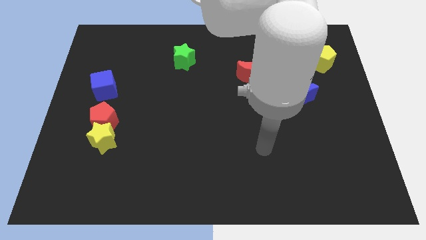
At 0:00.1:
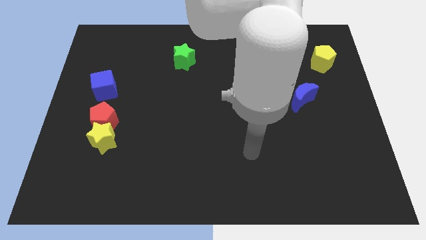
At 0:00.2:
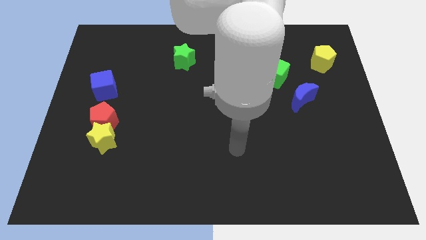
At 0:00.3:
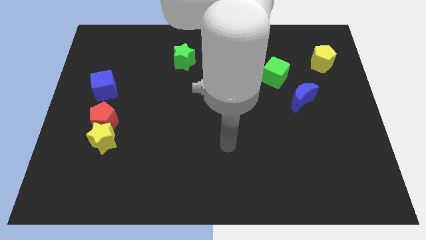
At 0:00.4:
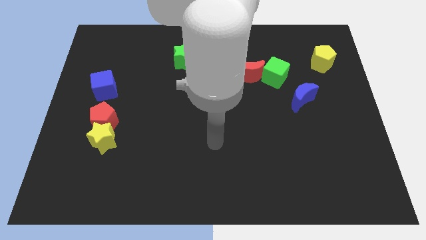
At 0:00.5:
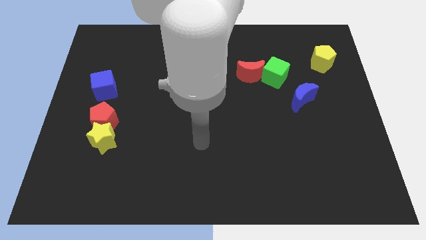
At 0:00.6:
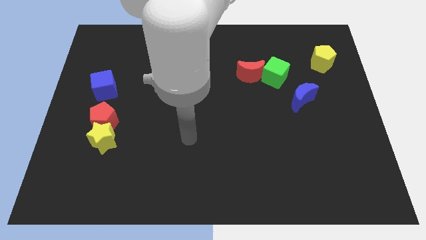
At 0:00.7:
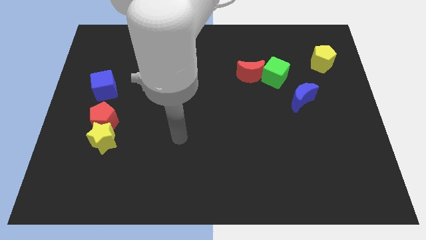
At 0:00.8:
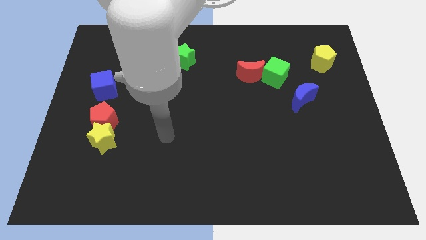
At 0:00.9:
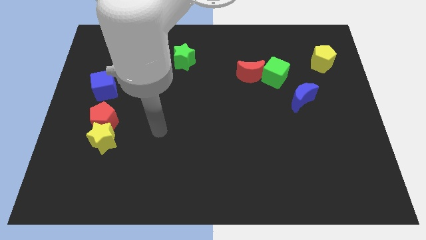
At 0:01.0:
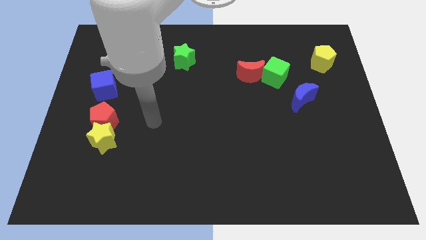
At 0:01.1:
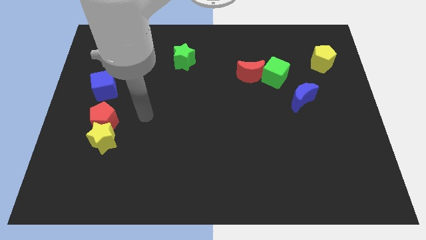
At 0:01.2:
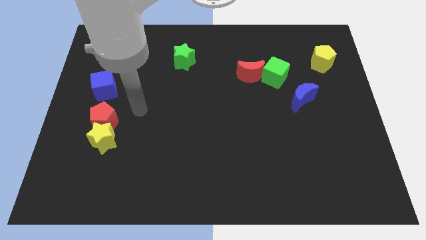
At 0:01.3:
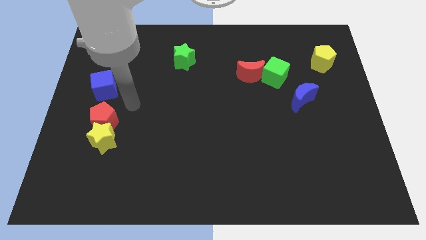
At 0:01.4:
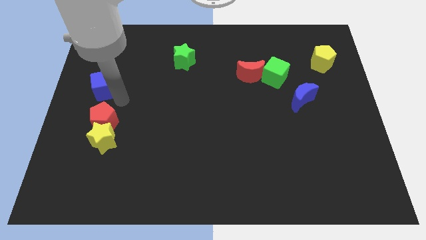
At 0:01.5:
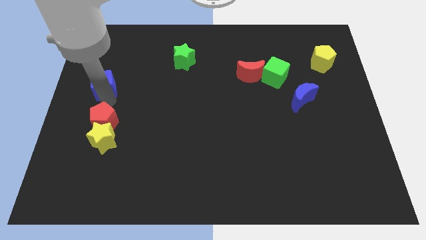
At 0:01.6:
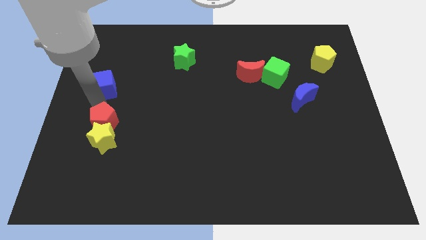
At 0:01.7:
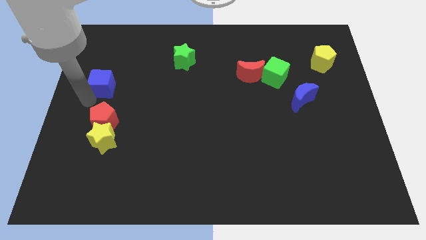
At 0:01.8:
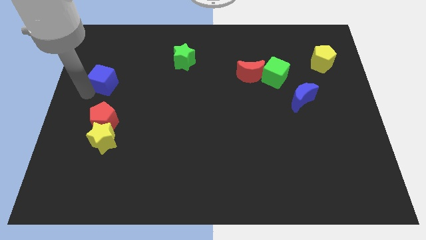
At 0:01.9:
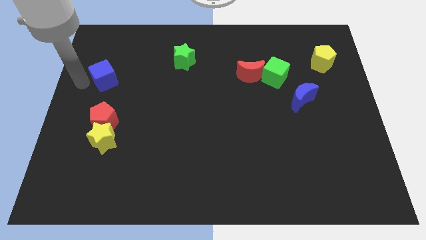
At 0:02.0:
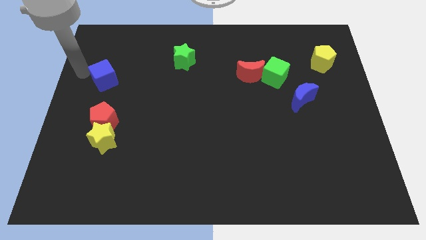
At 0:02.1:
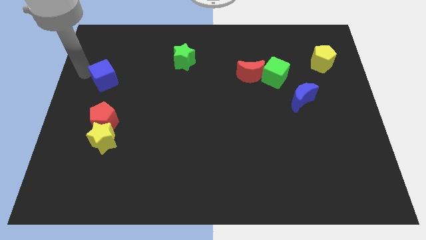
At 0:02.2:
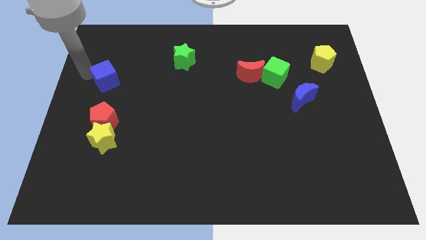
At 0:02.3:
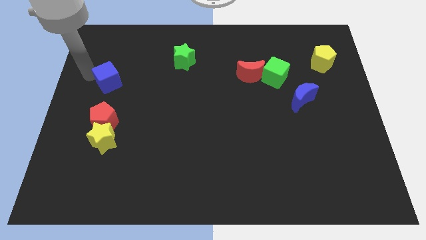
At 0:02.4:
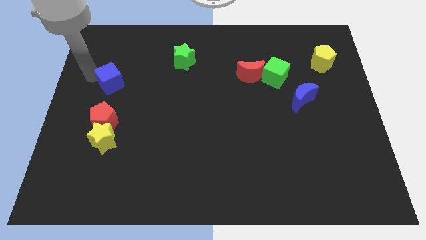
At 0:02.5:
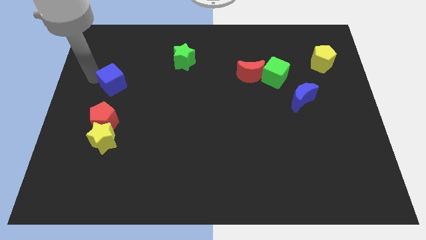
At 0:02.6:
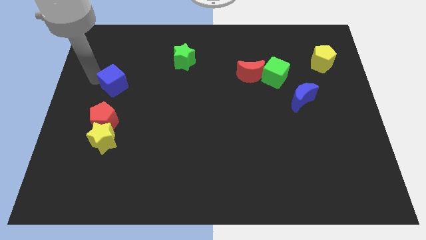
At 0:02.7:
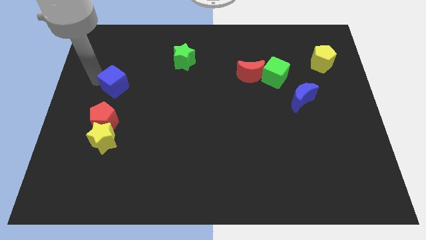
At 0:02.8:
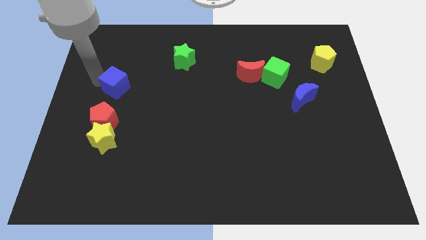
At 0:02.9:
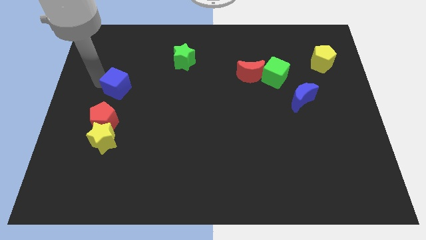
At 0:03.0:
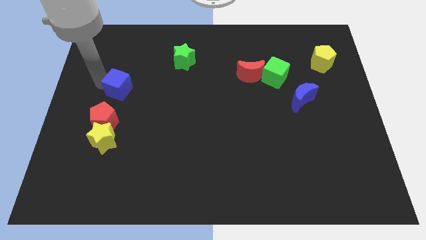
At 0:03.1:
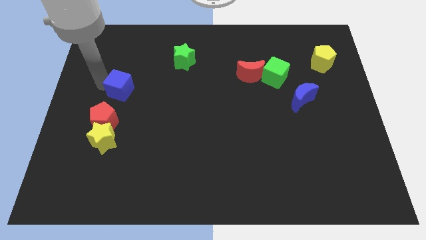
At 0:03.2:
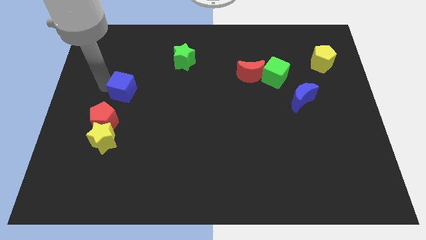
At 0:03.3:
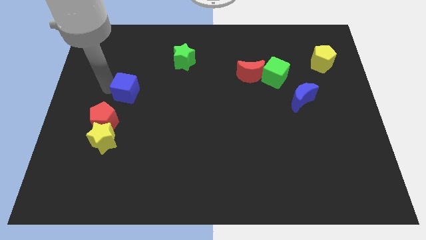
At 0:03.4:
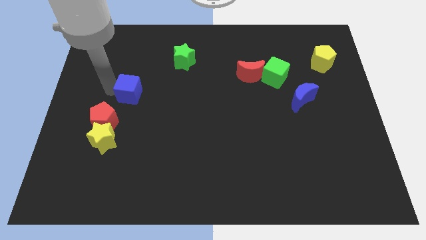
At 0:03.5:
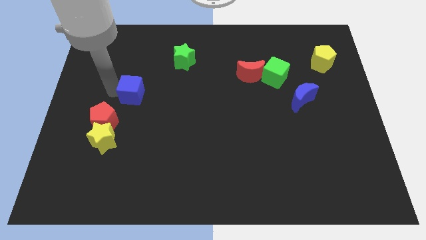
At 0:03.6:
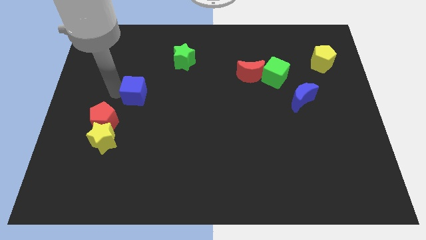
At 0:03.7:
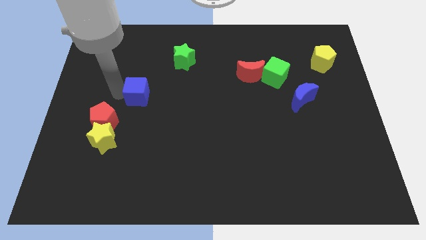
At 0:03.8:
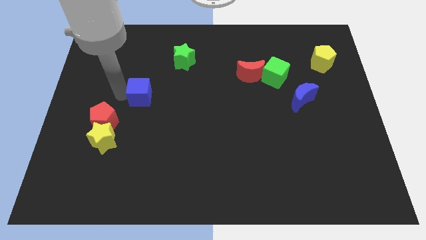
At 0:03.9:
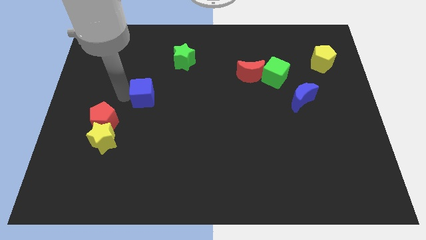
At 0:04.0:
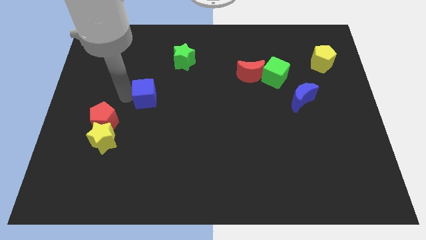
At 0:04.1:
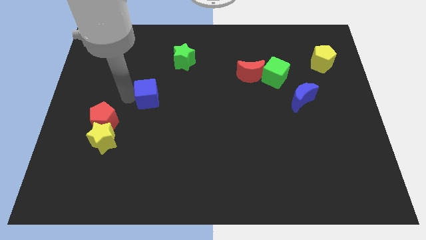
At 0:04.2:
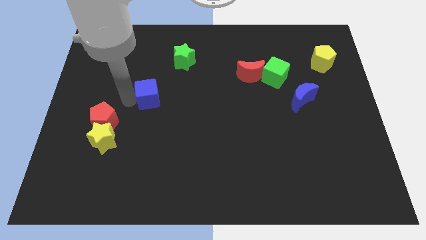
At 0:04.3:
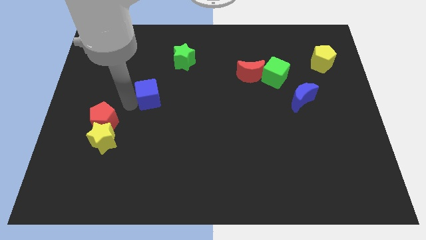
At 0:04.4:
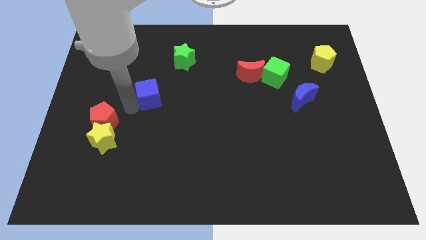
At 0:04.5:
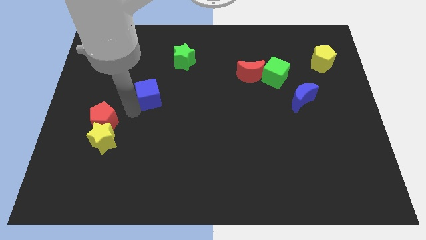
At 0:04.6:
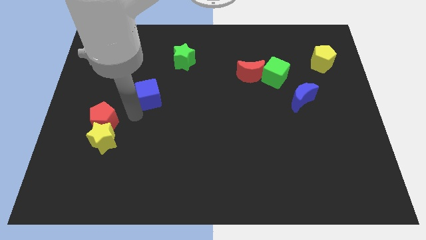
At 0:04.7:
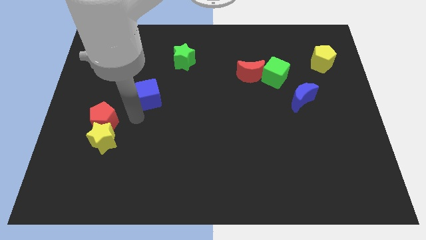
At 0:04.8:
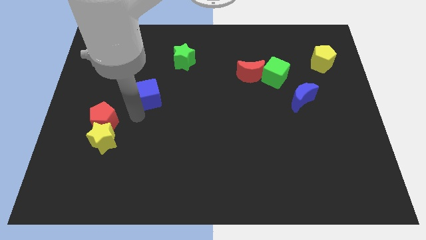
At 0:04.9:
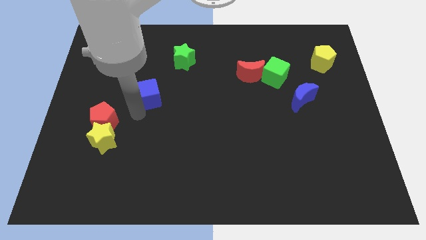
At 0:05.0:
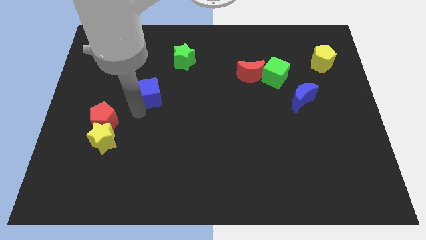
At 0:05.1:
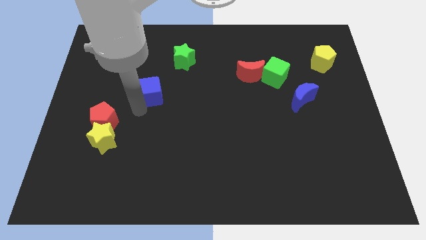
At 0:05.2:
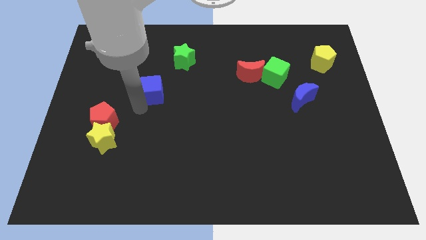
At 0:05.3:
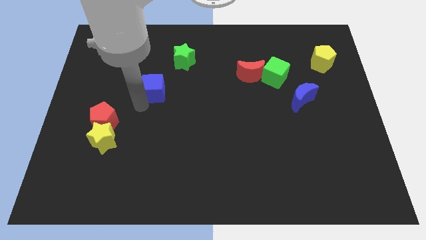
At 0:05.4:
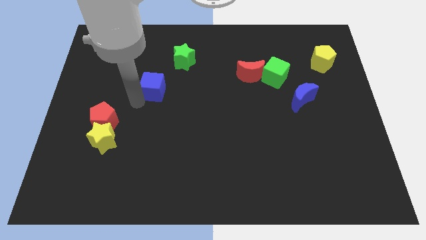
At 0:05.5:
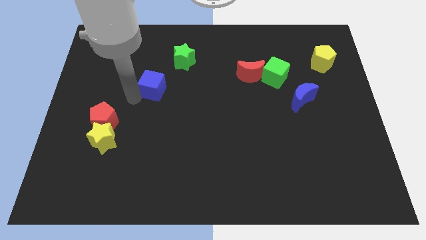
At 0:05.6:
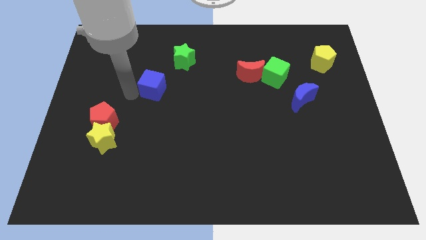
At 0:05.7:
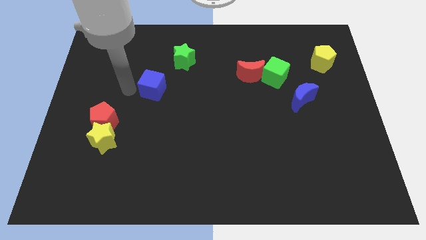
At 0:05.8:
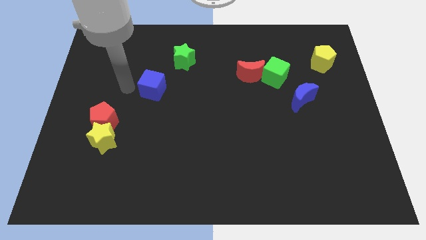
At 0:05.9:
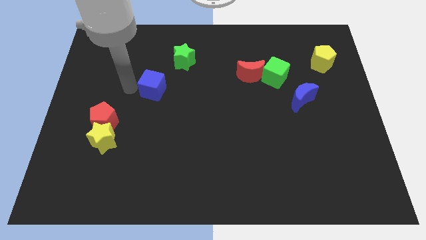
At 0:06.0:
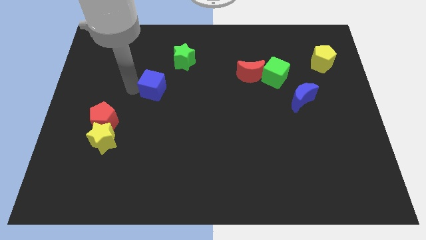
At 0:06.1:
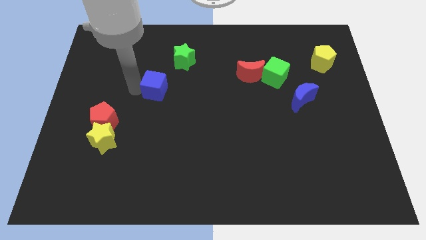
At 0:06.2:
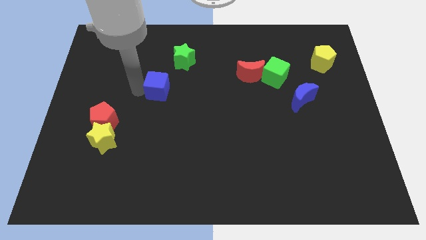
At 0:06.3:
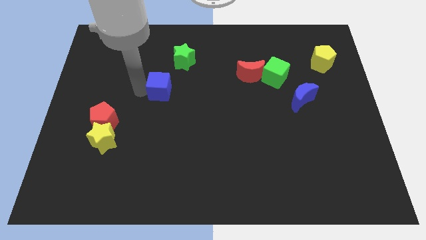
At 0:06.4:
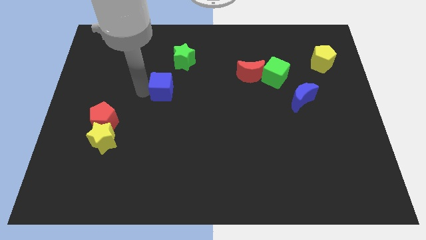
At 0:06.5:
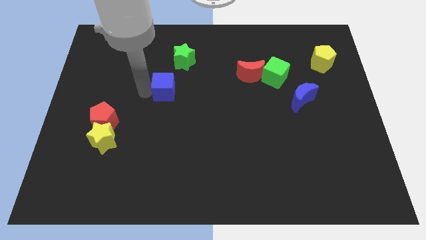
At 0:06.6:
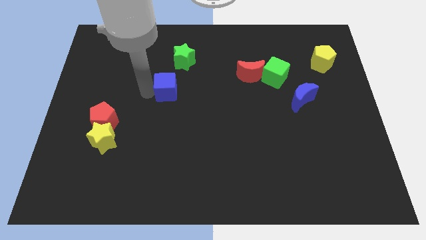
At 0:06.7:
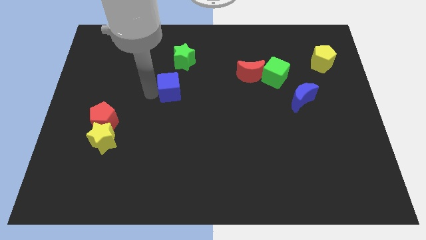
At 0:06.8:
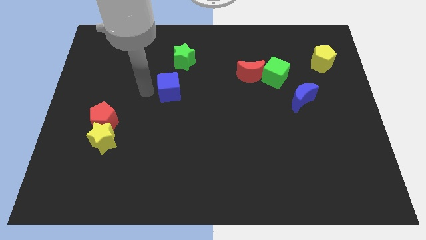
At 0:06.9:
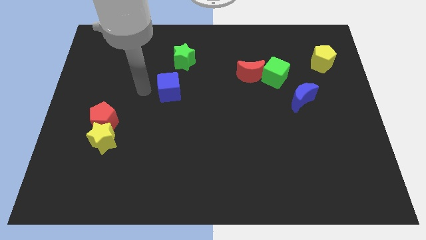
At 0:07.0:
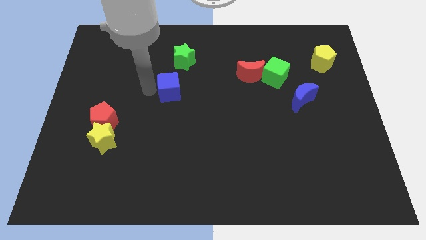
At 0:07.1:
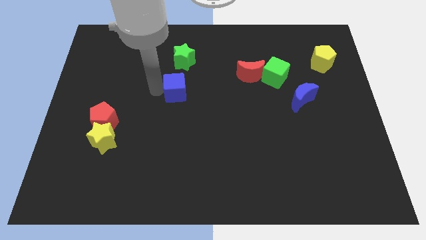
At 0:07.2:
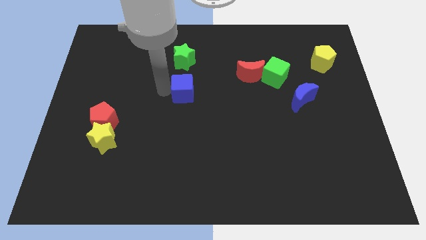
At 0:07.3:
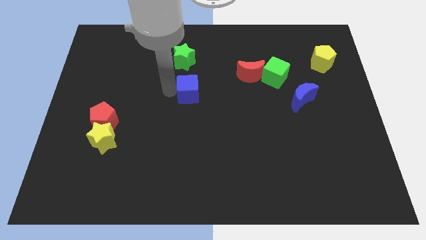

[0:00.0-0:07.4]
slide the blue cube to the right

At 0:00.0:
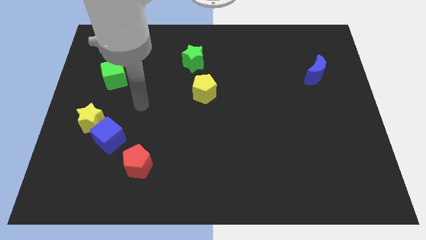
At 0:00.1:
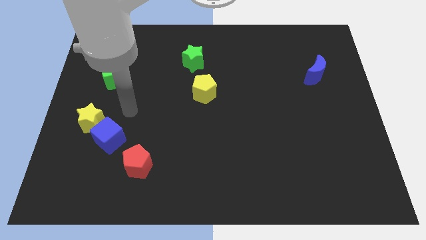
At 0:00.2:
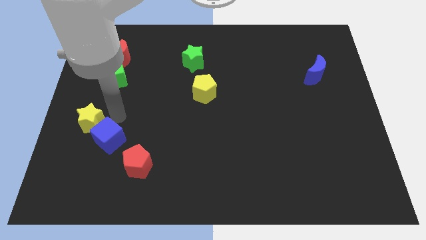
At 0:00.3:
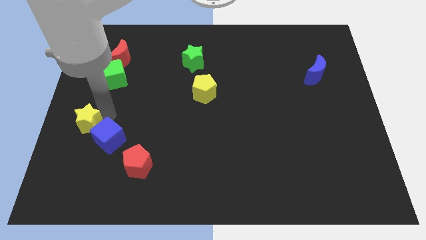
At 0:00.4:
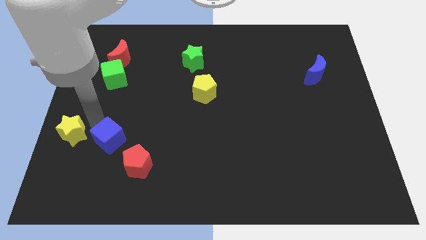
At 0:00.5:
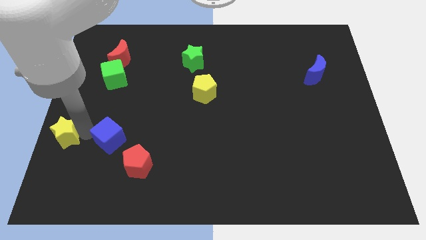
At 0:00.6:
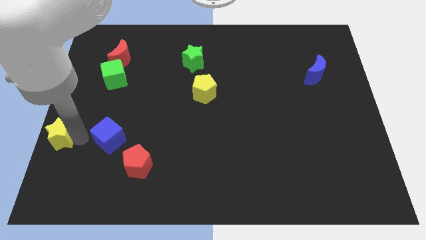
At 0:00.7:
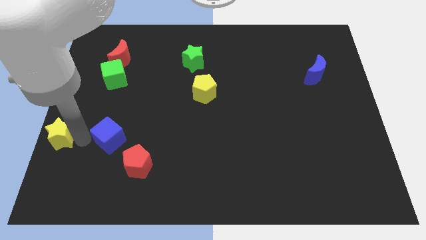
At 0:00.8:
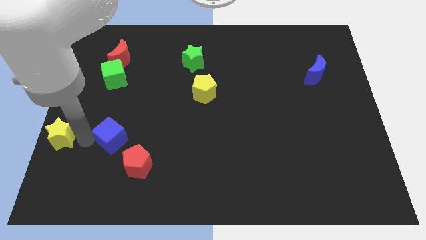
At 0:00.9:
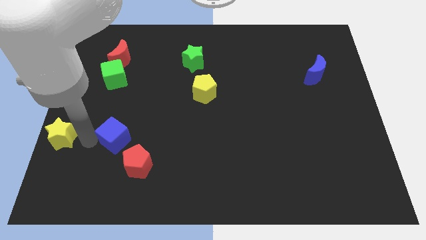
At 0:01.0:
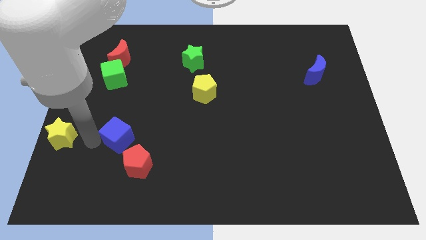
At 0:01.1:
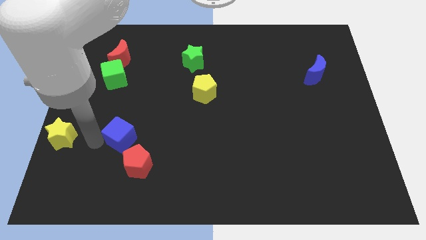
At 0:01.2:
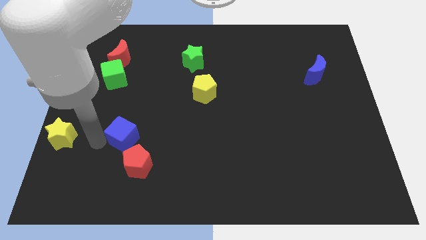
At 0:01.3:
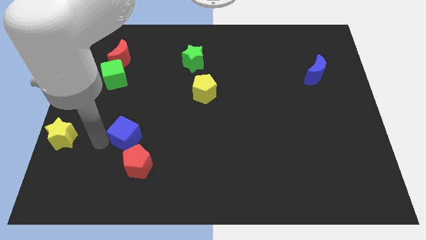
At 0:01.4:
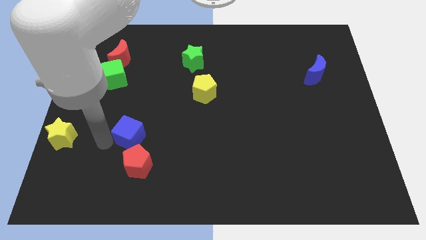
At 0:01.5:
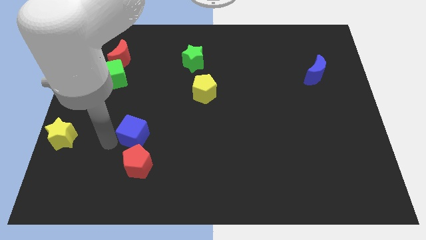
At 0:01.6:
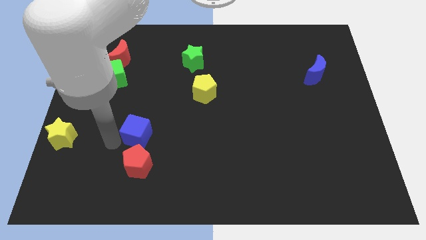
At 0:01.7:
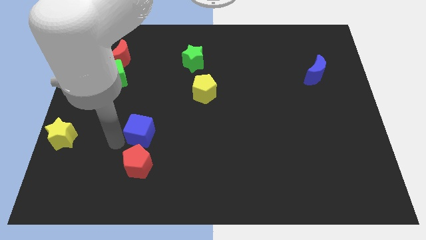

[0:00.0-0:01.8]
slightly move the blue cube to the right
